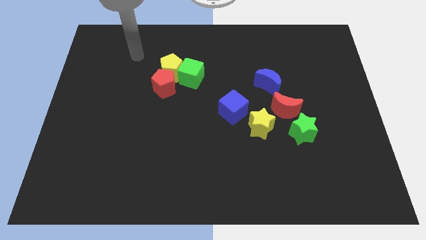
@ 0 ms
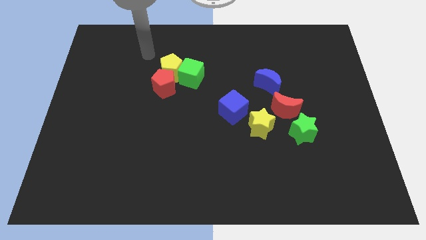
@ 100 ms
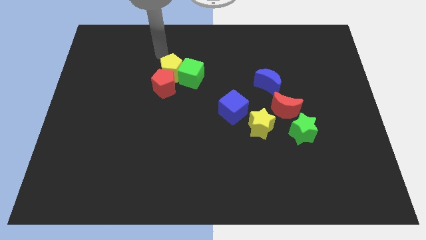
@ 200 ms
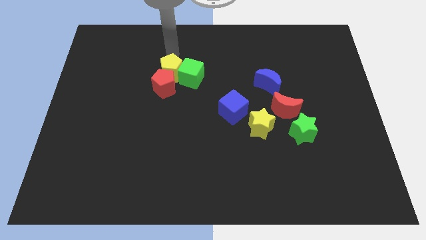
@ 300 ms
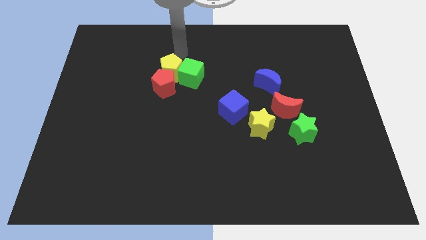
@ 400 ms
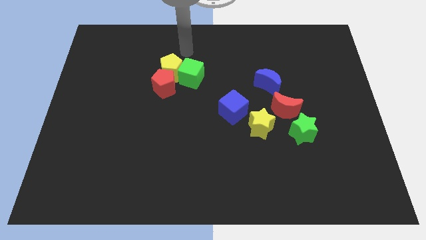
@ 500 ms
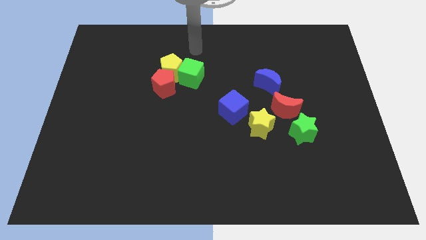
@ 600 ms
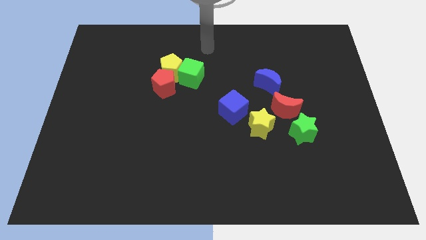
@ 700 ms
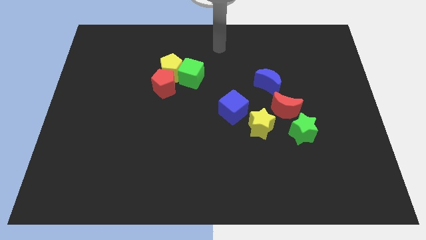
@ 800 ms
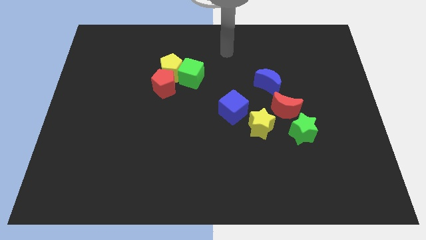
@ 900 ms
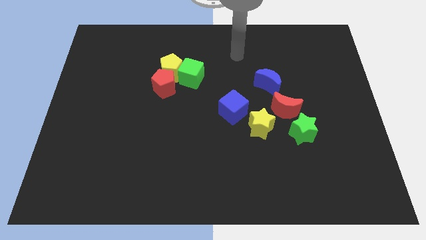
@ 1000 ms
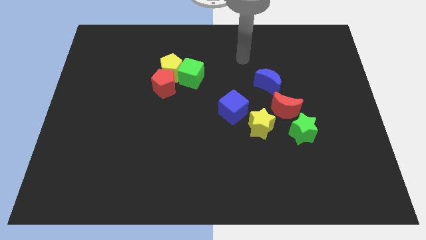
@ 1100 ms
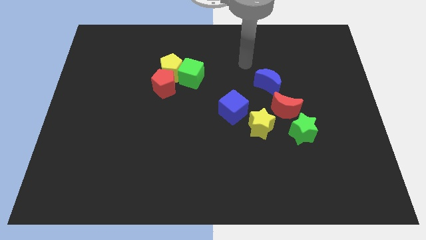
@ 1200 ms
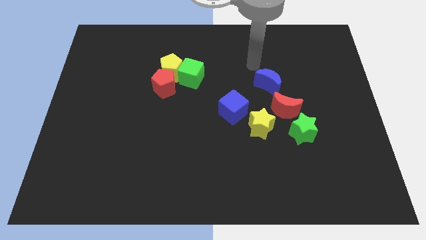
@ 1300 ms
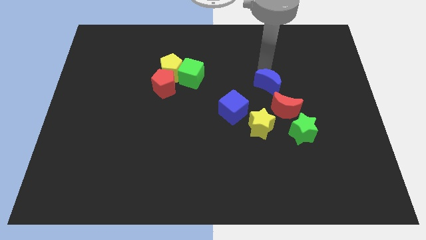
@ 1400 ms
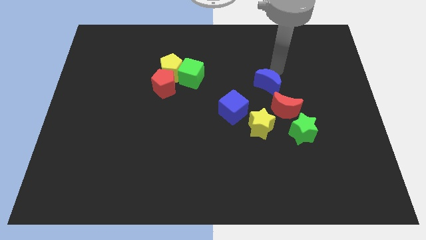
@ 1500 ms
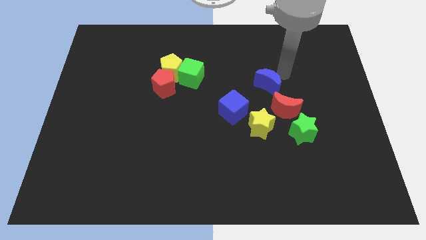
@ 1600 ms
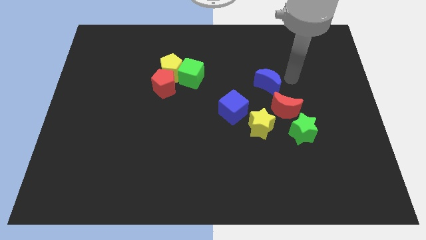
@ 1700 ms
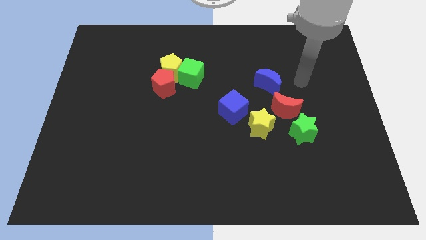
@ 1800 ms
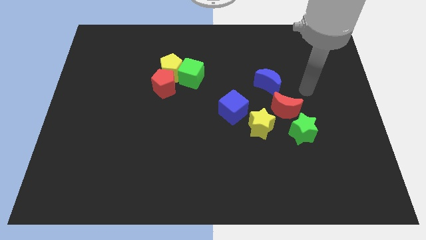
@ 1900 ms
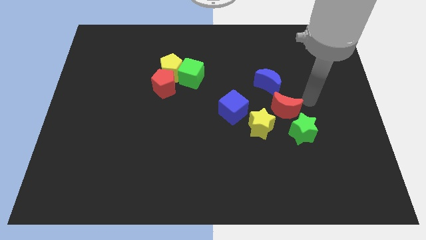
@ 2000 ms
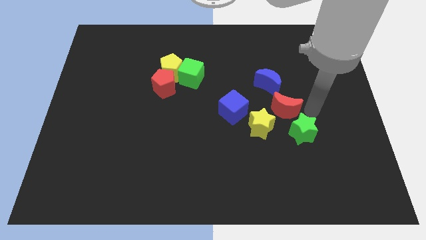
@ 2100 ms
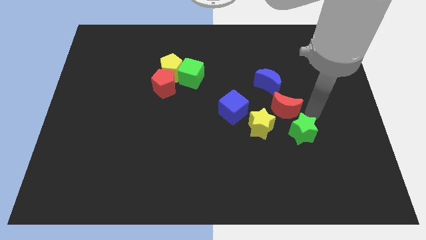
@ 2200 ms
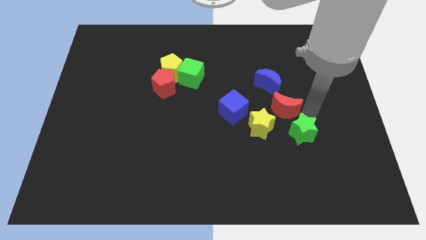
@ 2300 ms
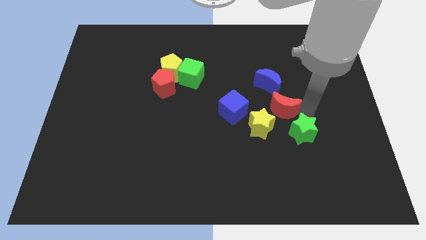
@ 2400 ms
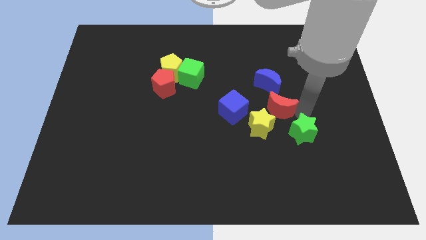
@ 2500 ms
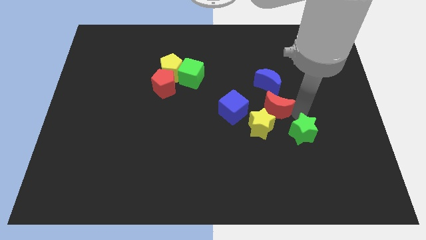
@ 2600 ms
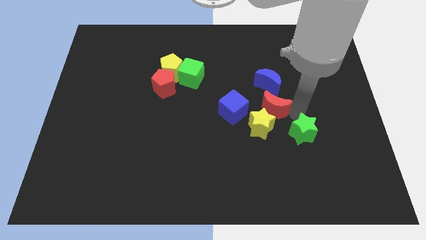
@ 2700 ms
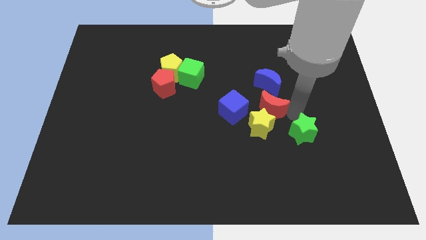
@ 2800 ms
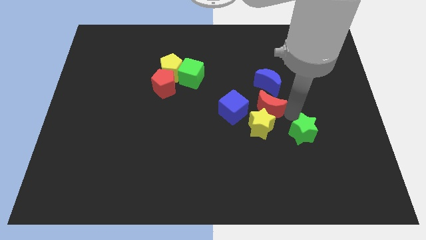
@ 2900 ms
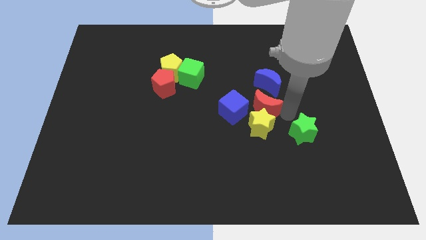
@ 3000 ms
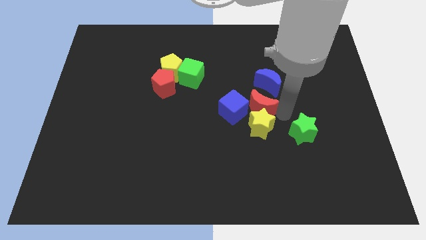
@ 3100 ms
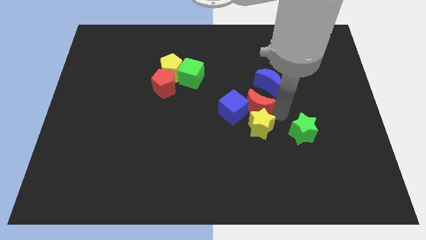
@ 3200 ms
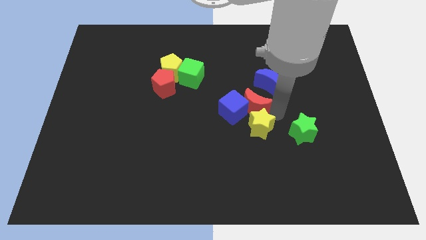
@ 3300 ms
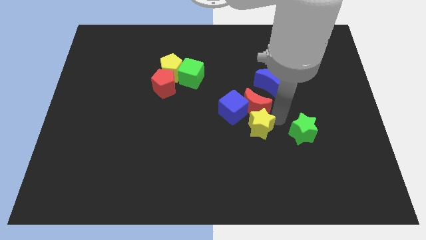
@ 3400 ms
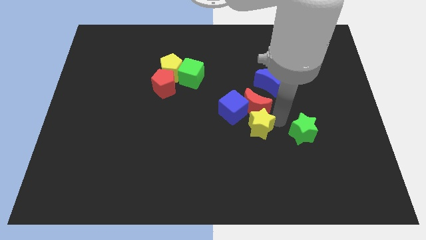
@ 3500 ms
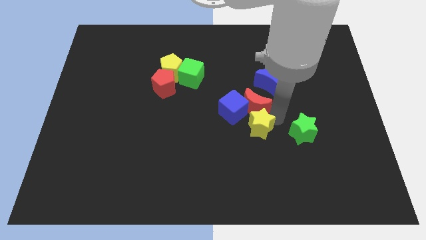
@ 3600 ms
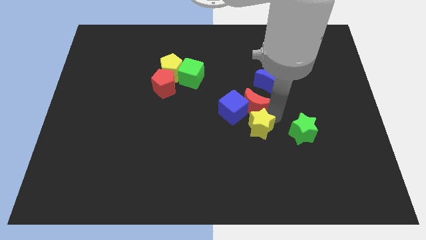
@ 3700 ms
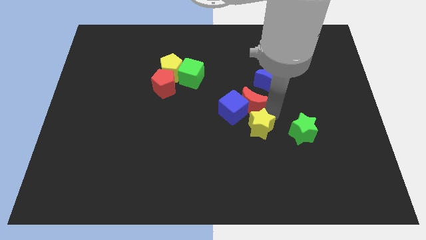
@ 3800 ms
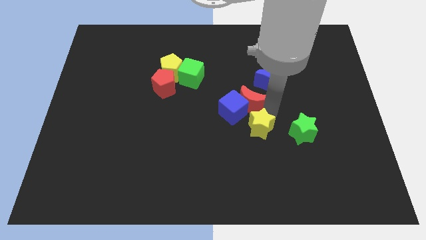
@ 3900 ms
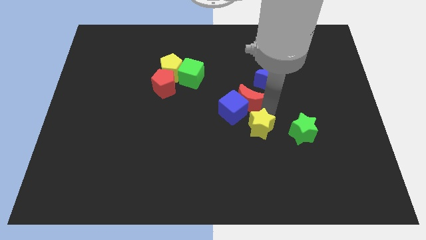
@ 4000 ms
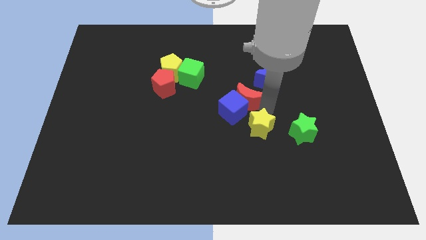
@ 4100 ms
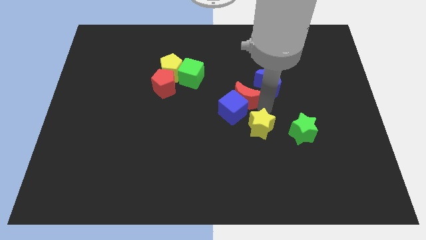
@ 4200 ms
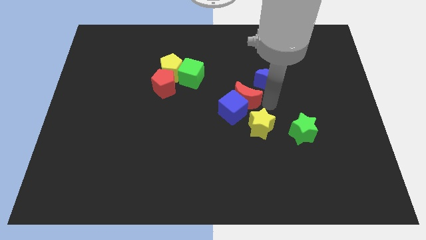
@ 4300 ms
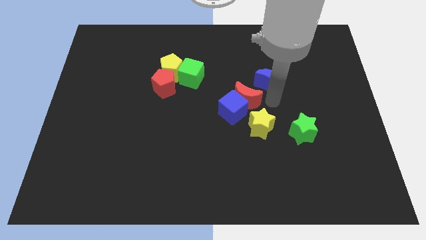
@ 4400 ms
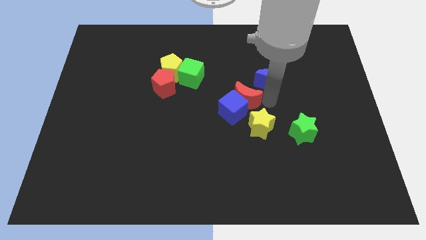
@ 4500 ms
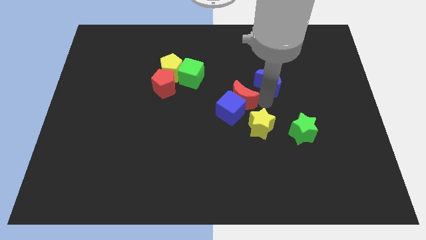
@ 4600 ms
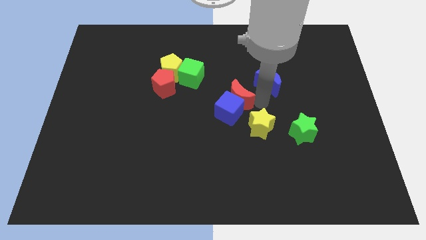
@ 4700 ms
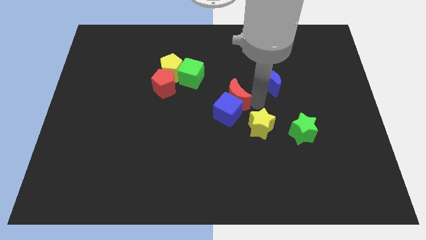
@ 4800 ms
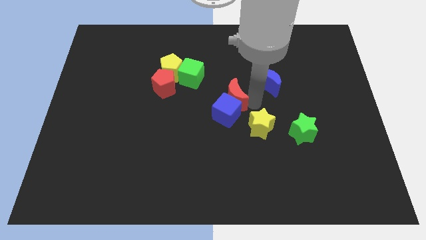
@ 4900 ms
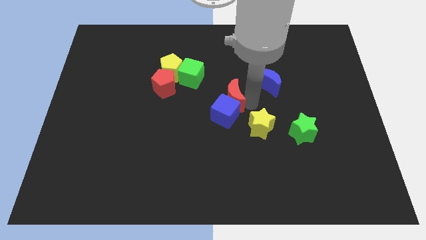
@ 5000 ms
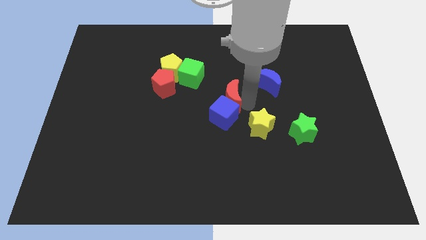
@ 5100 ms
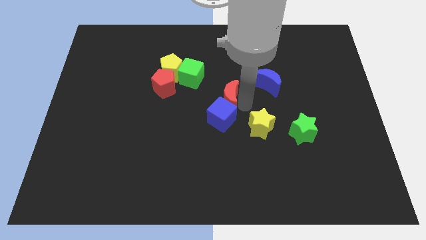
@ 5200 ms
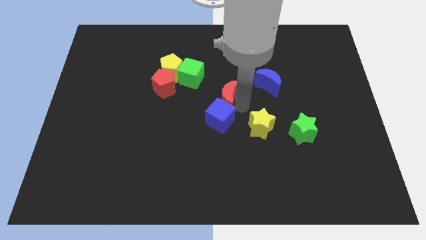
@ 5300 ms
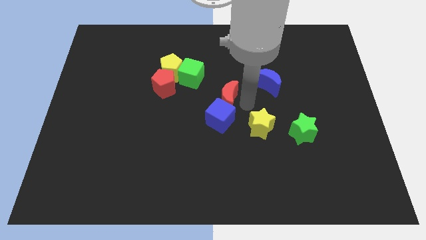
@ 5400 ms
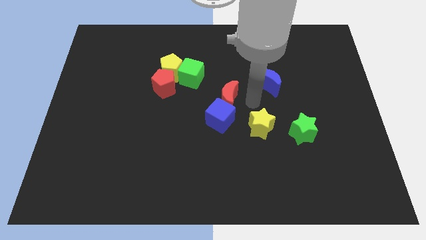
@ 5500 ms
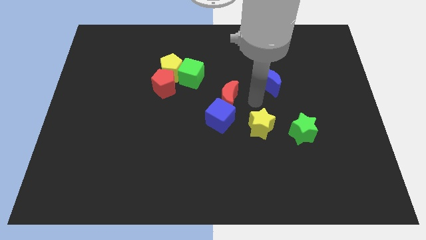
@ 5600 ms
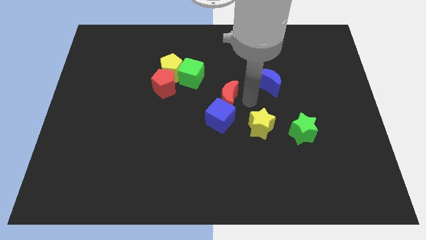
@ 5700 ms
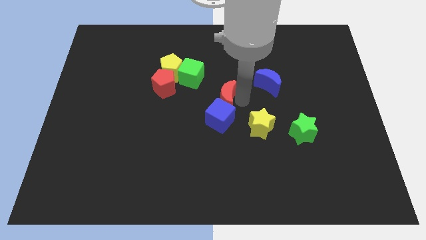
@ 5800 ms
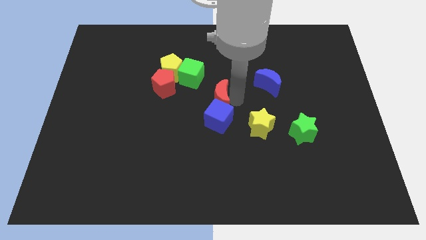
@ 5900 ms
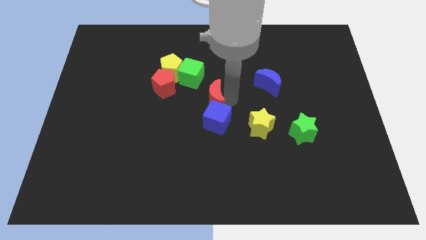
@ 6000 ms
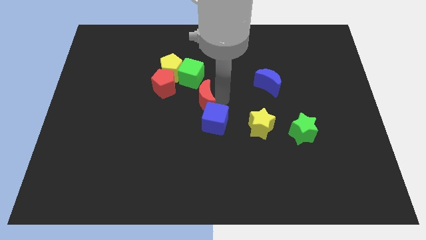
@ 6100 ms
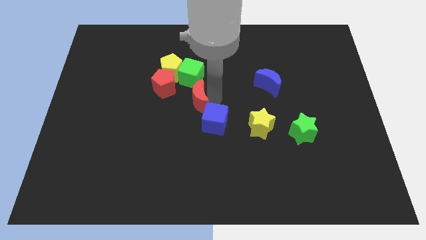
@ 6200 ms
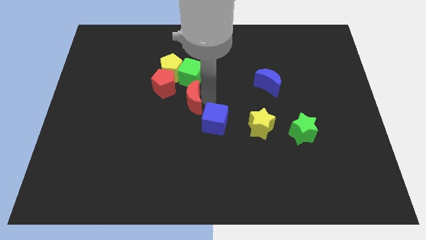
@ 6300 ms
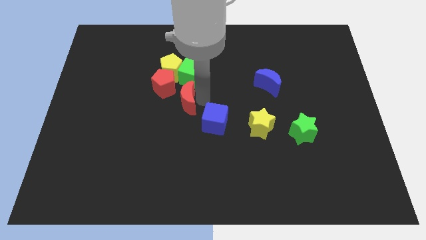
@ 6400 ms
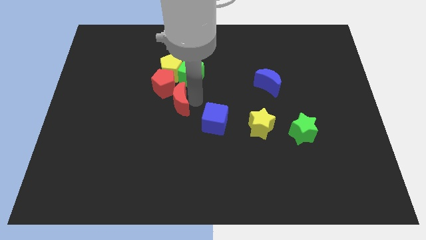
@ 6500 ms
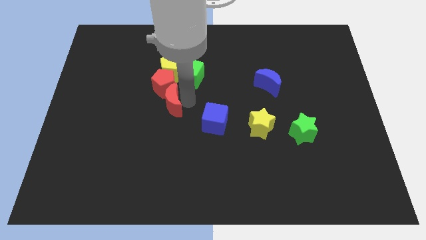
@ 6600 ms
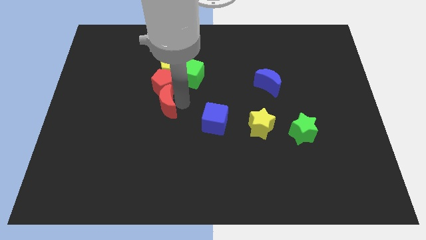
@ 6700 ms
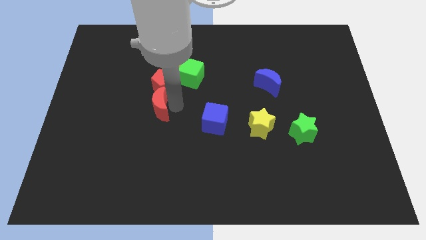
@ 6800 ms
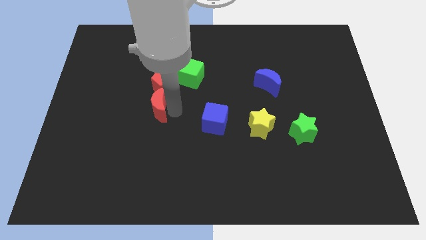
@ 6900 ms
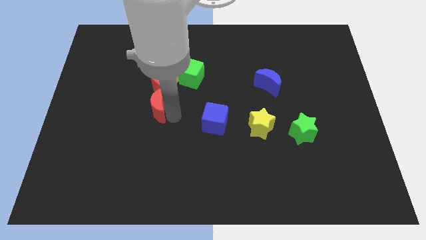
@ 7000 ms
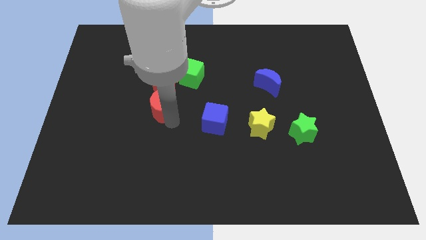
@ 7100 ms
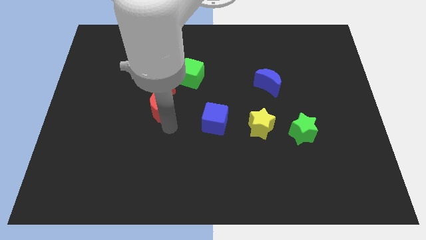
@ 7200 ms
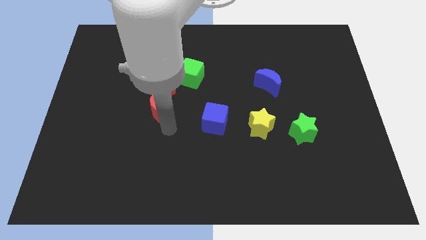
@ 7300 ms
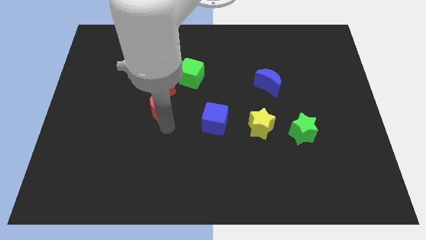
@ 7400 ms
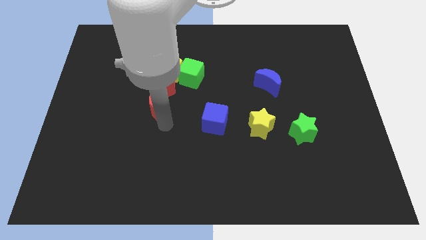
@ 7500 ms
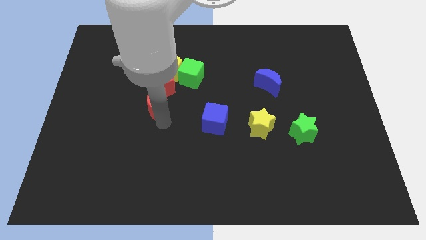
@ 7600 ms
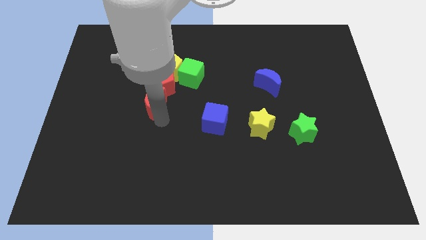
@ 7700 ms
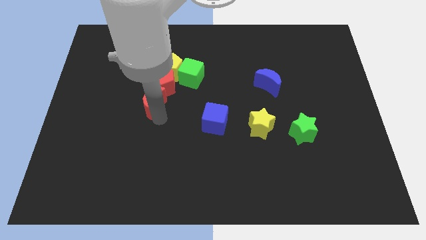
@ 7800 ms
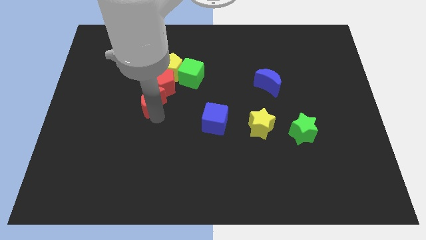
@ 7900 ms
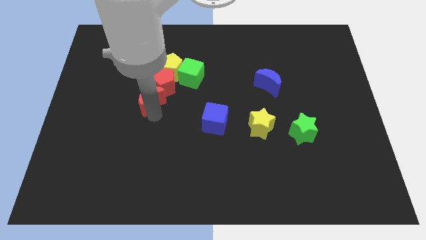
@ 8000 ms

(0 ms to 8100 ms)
slide the red moon to the bottom left side of the yellow pentagon
